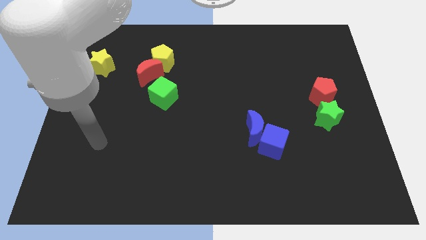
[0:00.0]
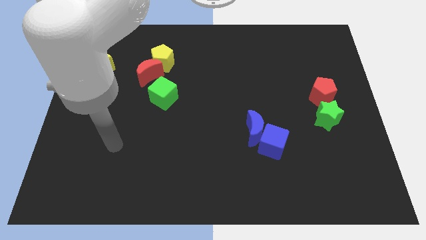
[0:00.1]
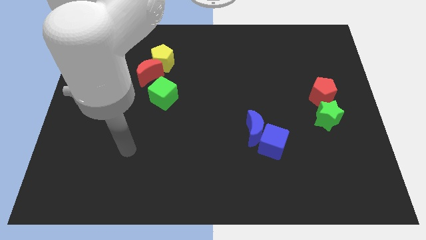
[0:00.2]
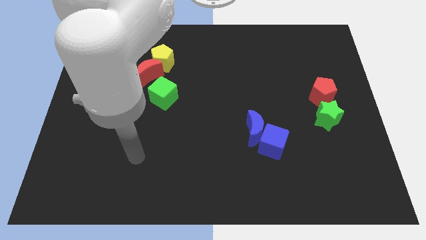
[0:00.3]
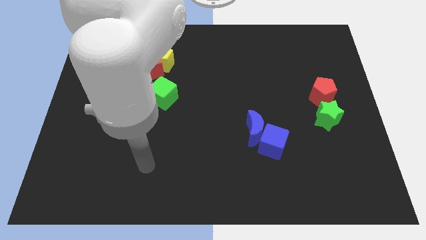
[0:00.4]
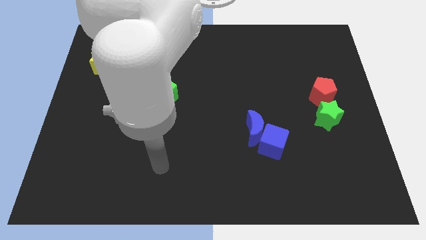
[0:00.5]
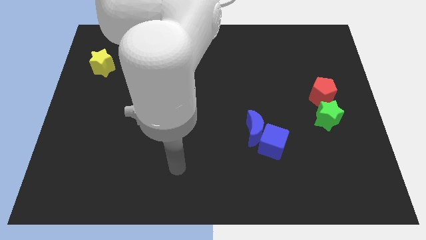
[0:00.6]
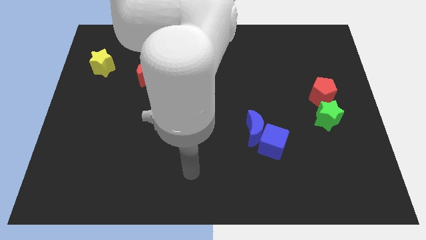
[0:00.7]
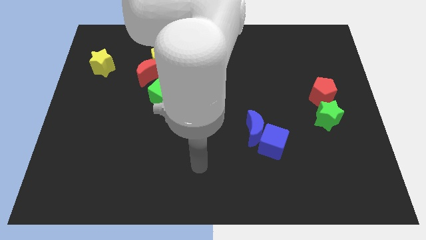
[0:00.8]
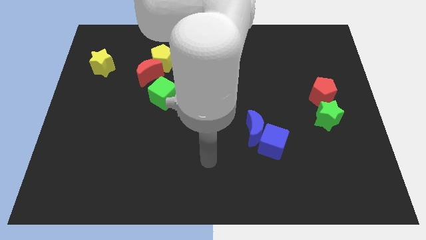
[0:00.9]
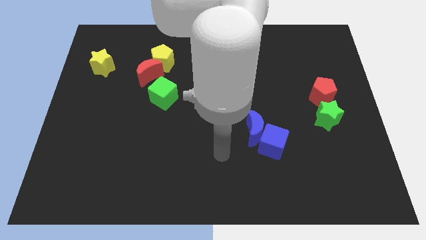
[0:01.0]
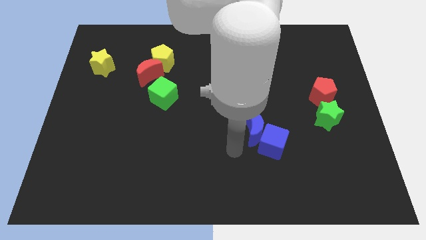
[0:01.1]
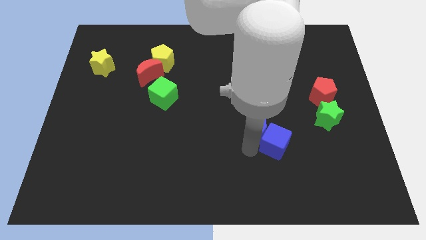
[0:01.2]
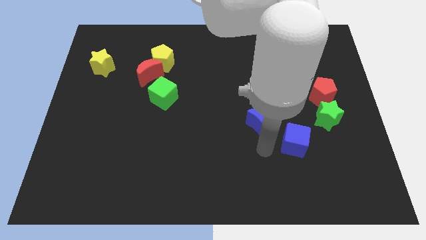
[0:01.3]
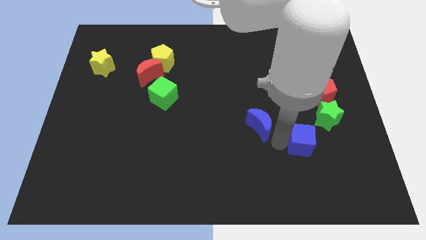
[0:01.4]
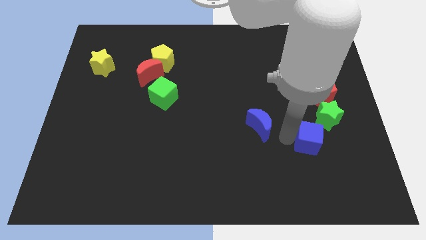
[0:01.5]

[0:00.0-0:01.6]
move the blue moon away from the blue cube

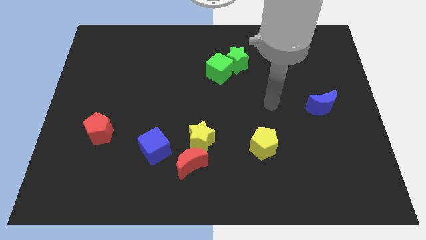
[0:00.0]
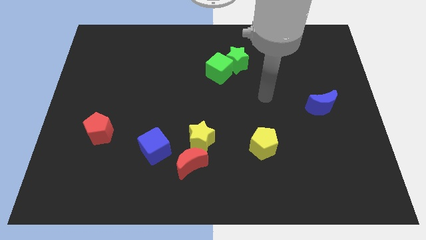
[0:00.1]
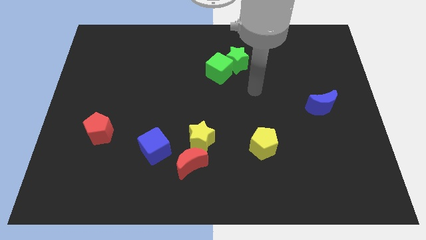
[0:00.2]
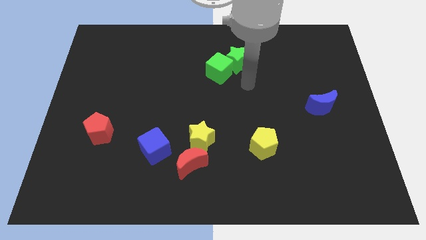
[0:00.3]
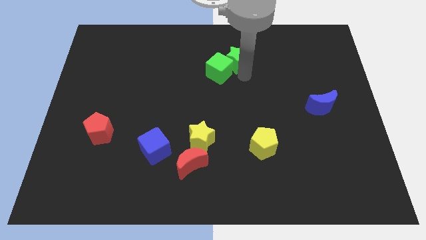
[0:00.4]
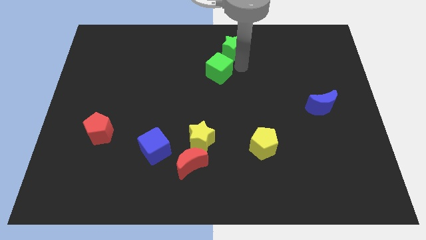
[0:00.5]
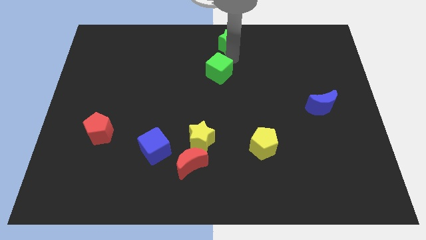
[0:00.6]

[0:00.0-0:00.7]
separate the green cube from the green star

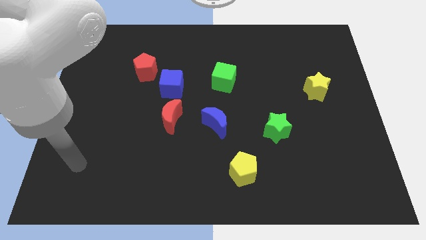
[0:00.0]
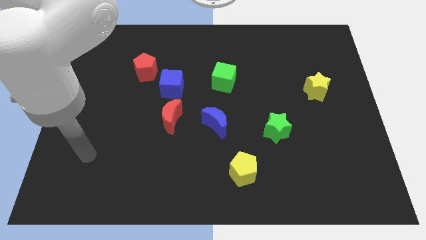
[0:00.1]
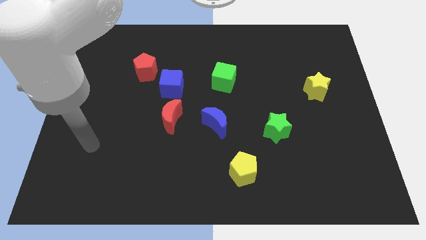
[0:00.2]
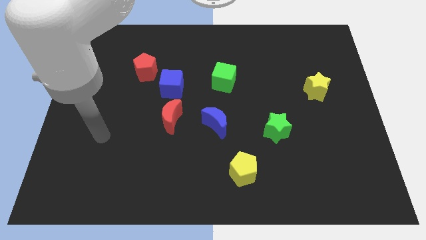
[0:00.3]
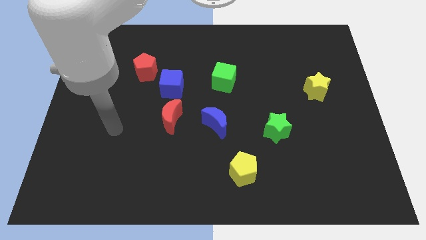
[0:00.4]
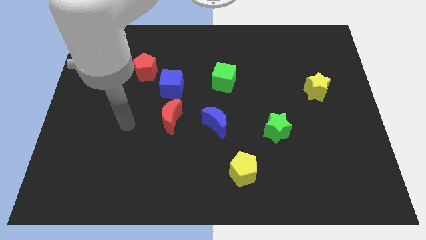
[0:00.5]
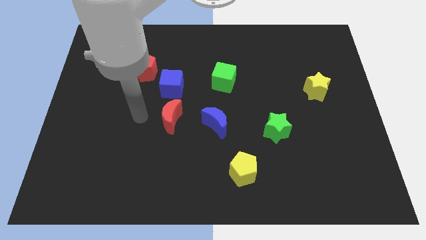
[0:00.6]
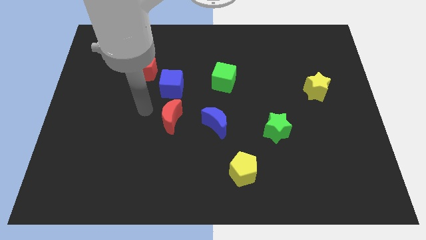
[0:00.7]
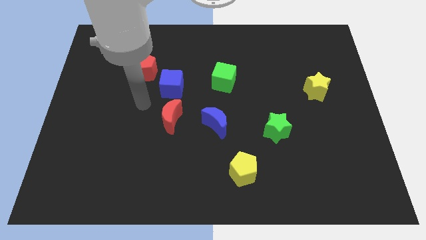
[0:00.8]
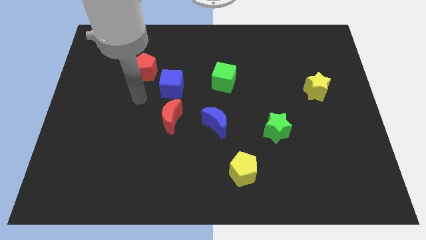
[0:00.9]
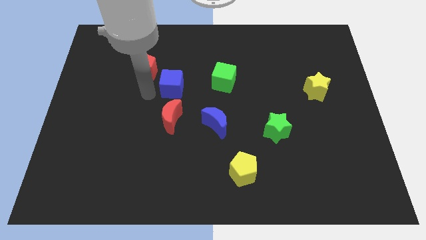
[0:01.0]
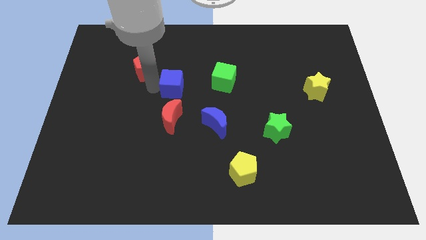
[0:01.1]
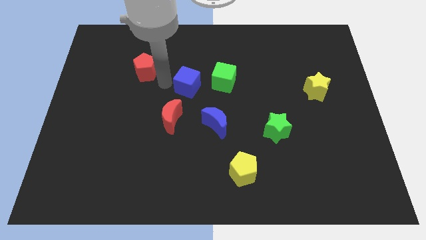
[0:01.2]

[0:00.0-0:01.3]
pull the red pentagon apart from the blue cube

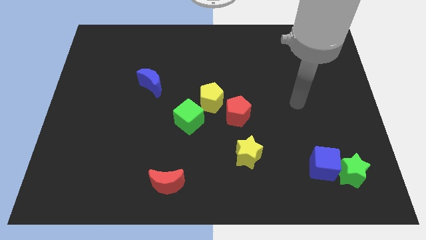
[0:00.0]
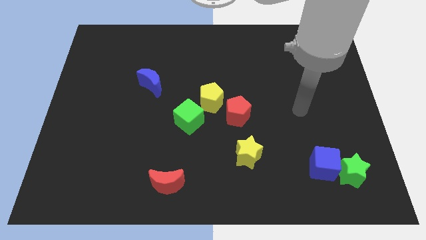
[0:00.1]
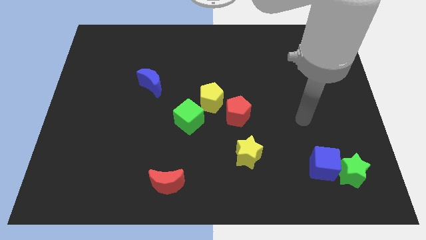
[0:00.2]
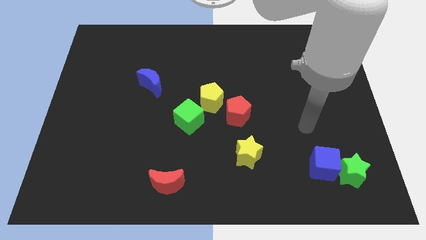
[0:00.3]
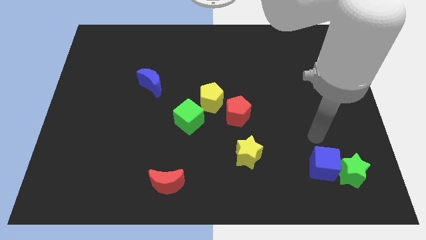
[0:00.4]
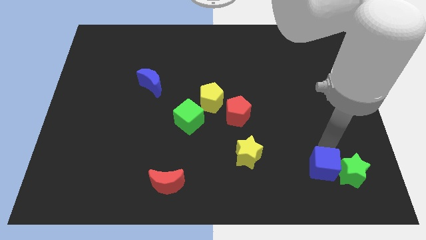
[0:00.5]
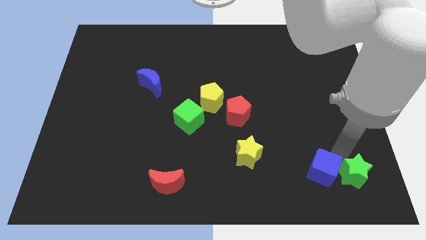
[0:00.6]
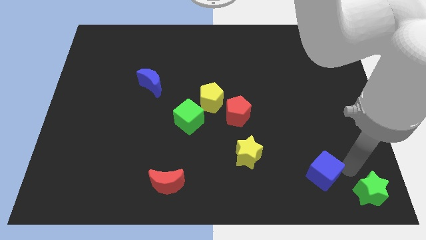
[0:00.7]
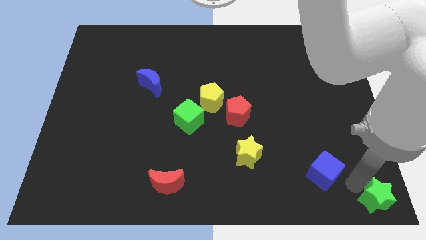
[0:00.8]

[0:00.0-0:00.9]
pull the blue cube apart from the green star

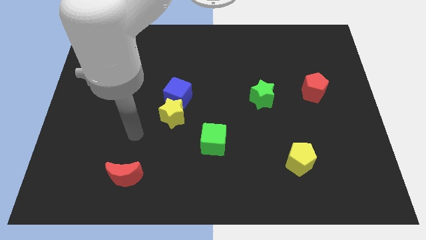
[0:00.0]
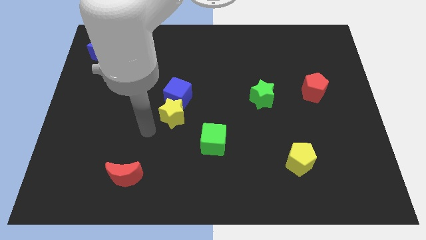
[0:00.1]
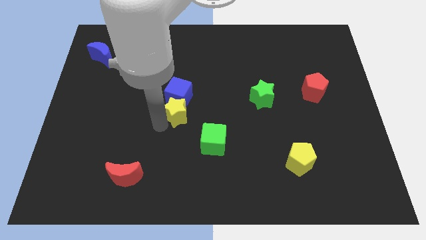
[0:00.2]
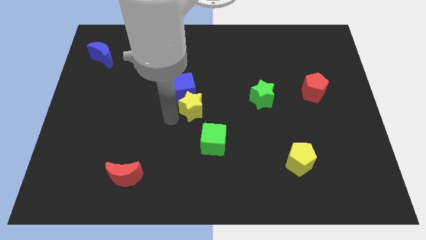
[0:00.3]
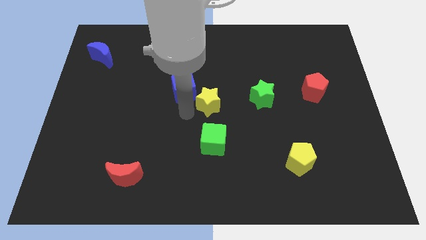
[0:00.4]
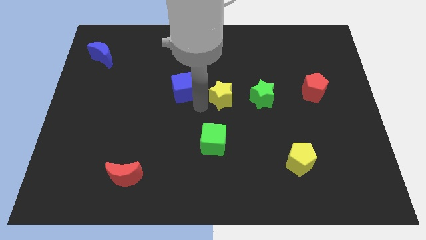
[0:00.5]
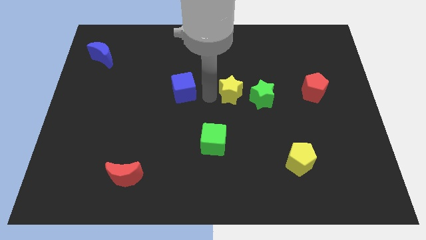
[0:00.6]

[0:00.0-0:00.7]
separate the blue cube from the yellow star

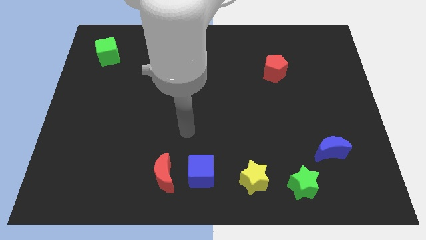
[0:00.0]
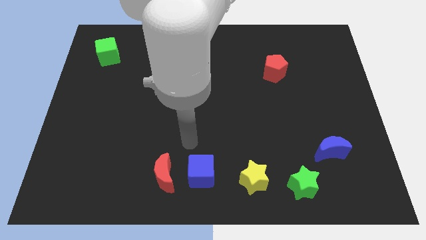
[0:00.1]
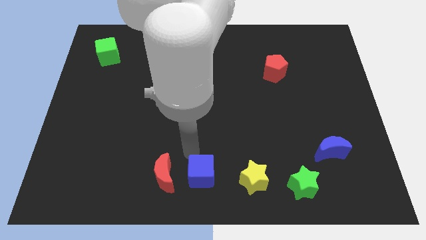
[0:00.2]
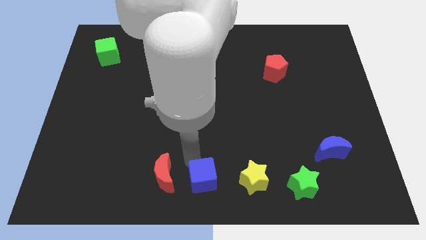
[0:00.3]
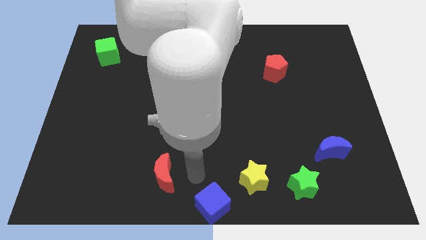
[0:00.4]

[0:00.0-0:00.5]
separate the red moon from the blue cube

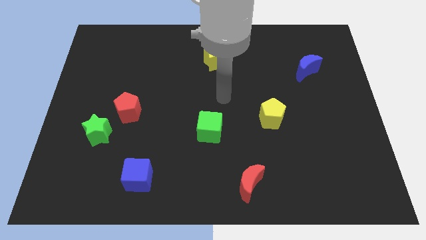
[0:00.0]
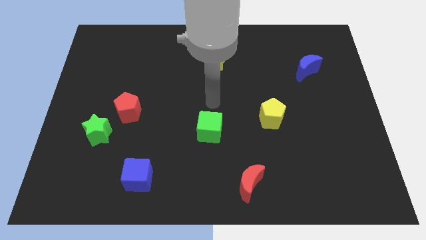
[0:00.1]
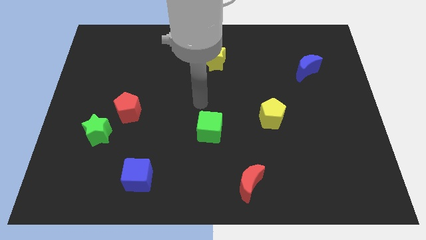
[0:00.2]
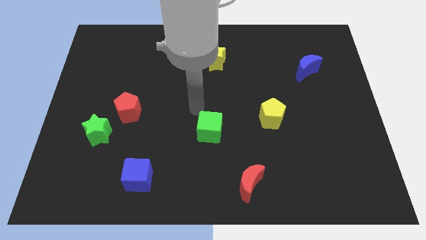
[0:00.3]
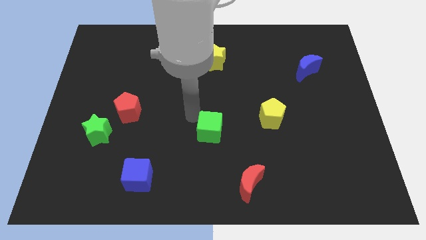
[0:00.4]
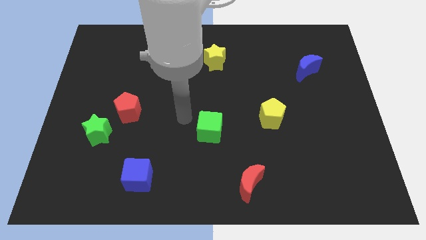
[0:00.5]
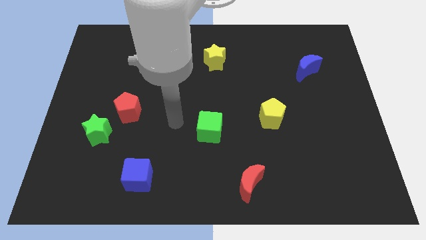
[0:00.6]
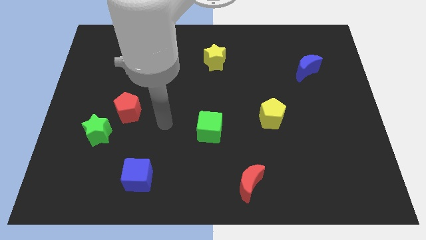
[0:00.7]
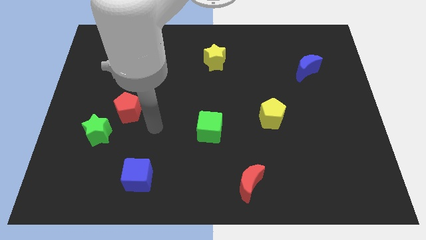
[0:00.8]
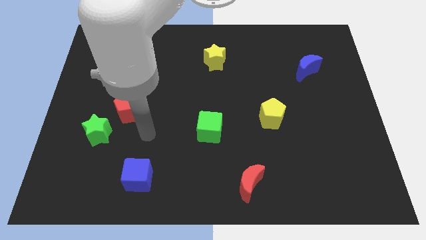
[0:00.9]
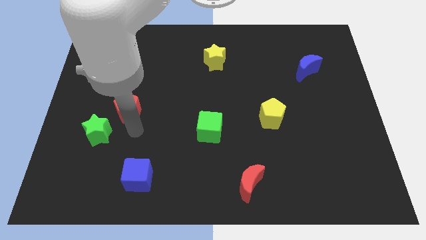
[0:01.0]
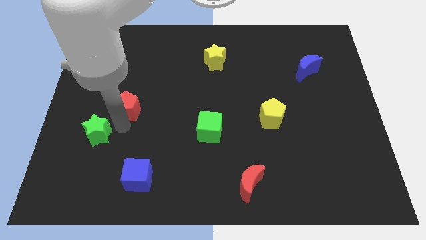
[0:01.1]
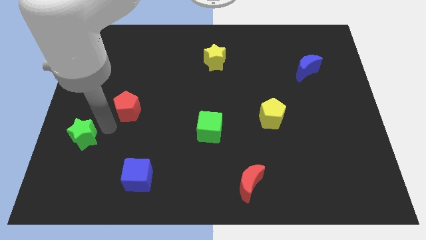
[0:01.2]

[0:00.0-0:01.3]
pull the red pentagon apart from the green star

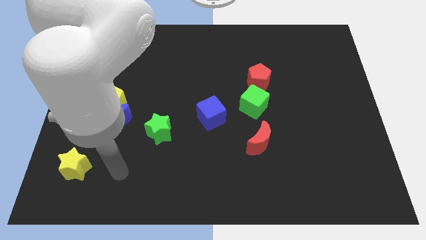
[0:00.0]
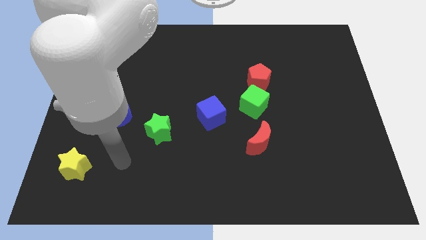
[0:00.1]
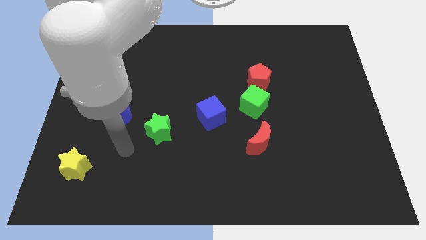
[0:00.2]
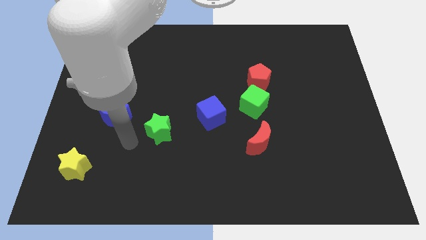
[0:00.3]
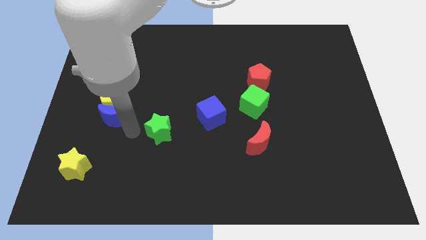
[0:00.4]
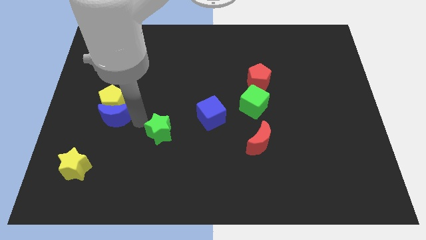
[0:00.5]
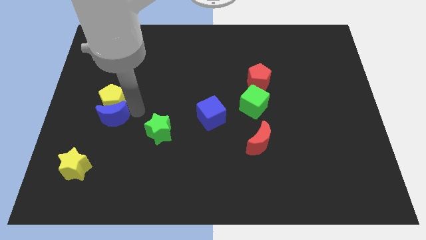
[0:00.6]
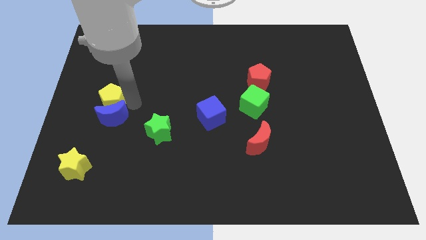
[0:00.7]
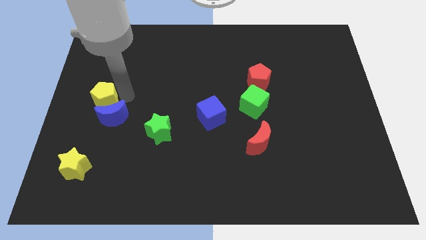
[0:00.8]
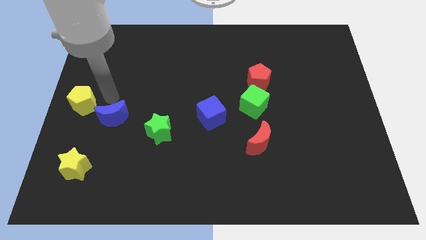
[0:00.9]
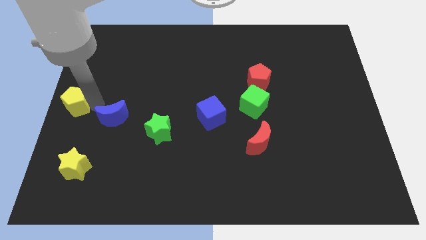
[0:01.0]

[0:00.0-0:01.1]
separate the blue moon from the yellow pentagon

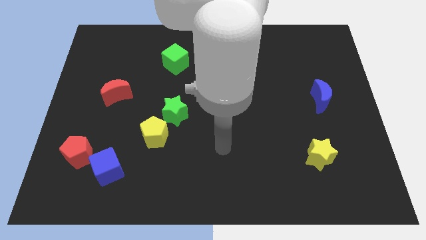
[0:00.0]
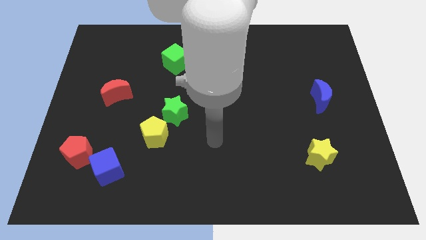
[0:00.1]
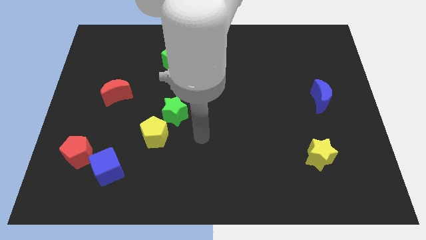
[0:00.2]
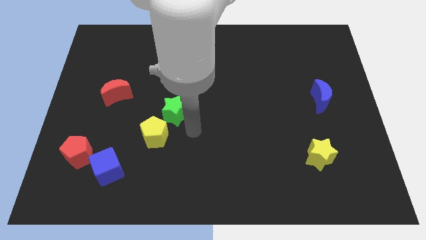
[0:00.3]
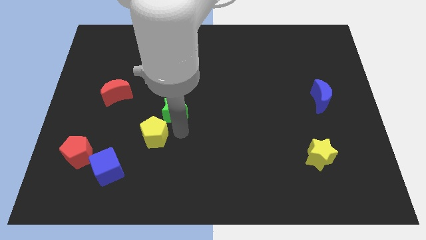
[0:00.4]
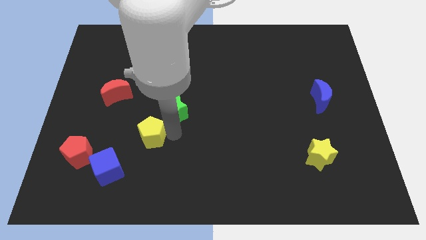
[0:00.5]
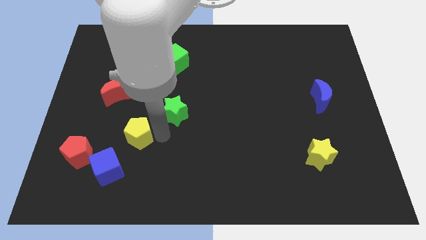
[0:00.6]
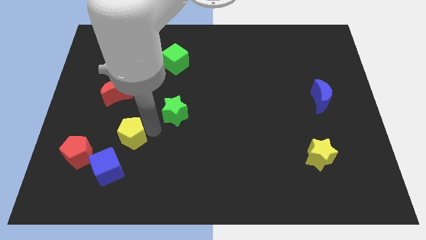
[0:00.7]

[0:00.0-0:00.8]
separate the green star from the yellow pentagon

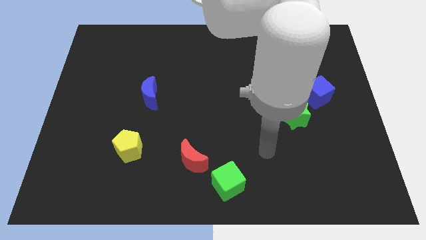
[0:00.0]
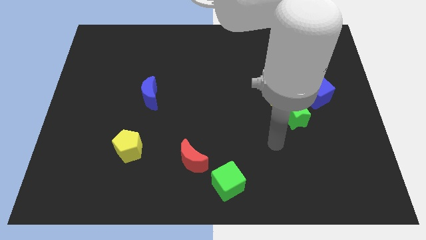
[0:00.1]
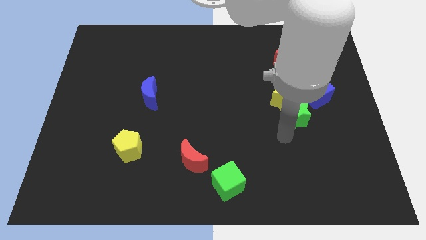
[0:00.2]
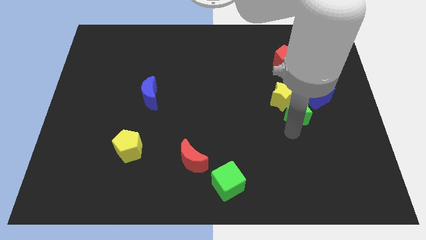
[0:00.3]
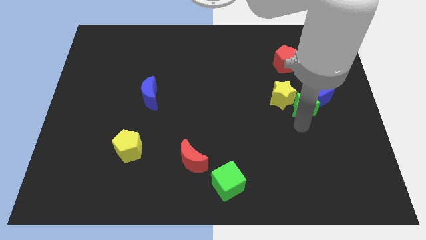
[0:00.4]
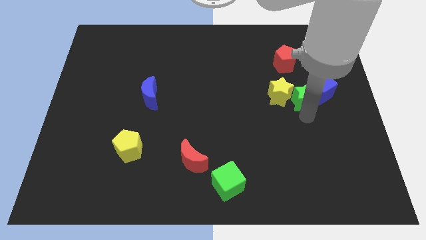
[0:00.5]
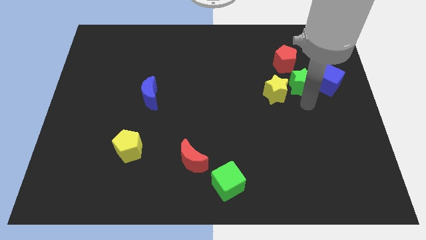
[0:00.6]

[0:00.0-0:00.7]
pull the yellow star apart from the green star and blue cube
